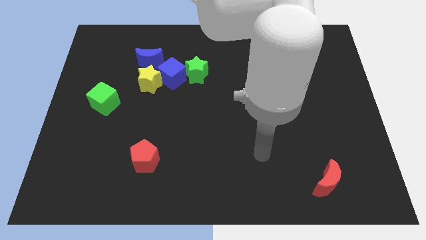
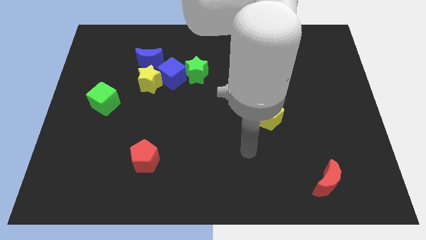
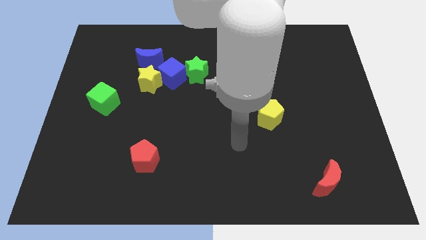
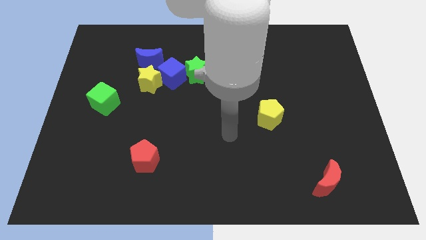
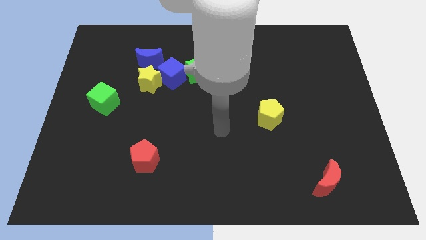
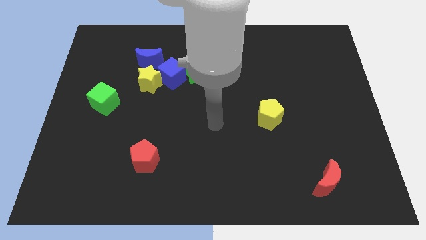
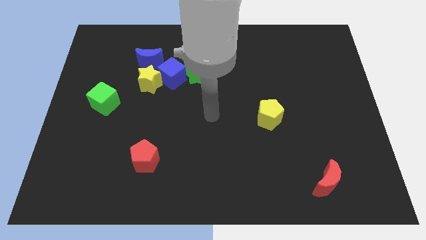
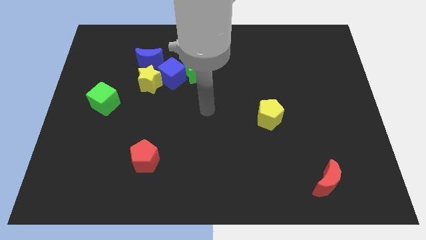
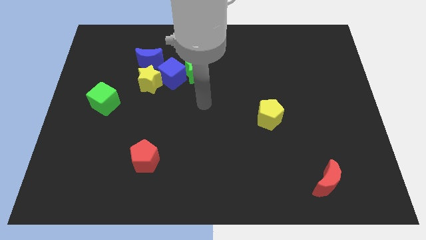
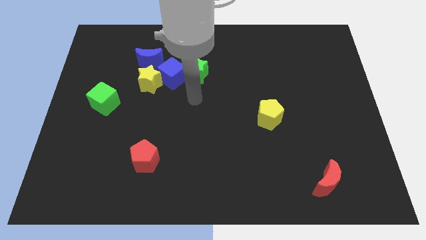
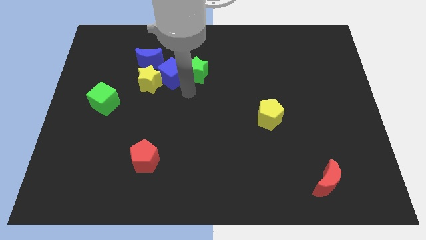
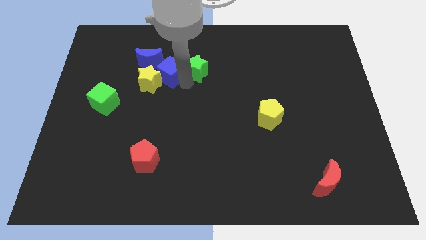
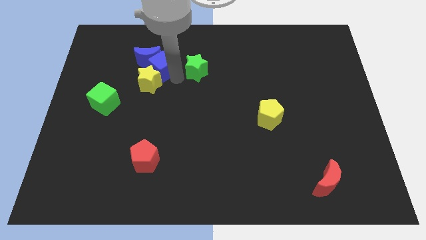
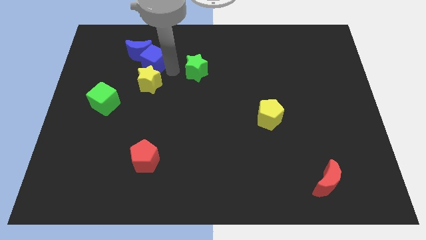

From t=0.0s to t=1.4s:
separate the green star from the blue cube

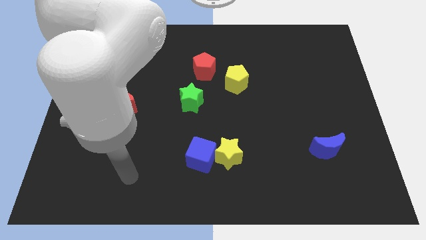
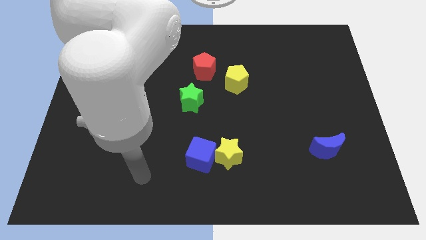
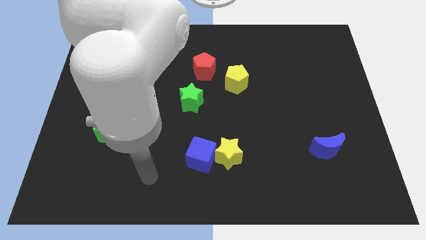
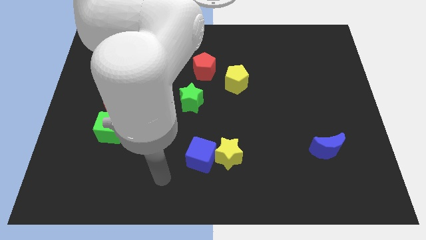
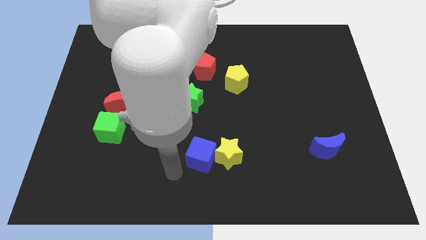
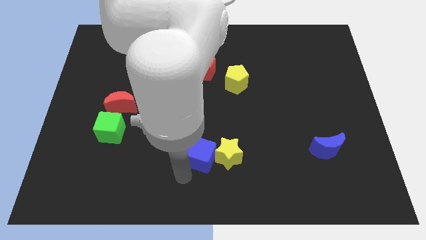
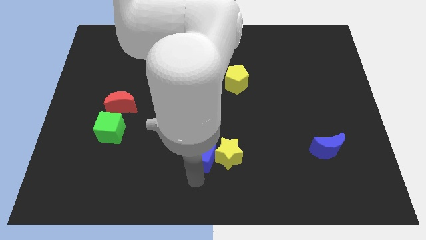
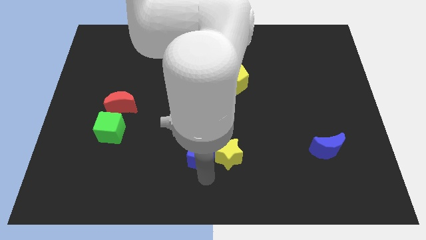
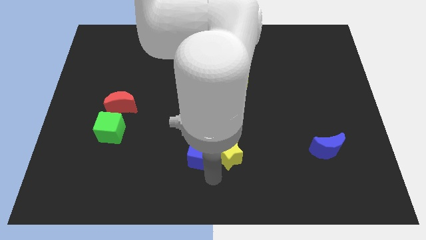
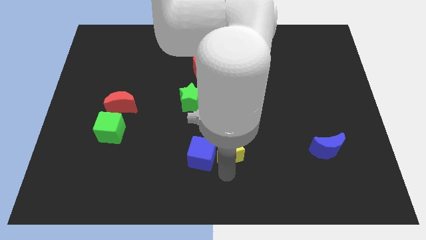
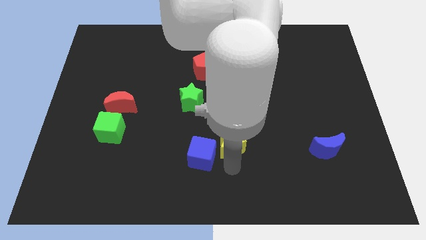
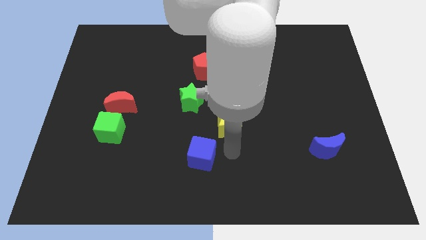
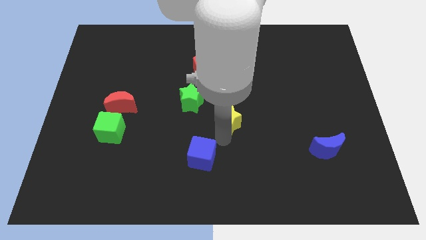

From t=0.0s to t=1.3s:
move the blue cube away from the yellow star

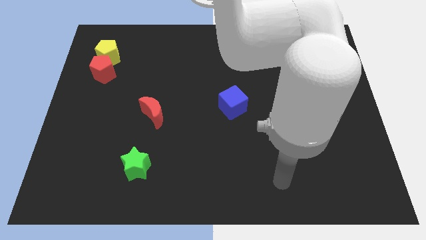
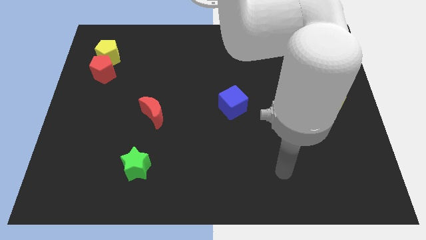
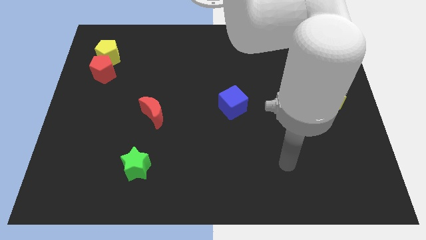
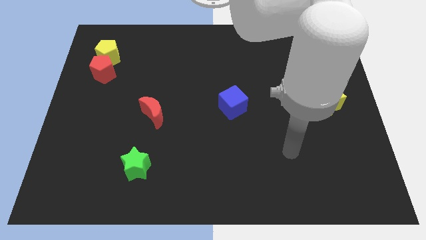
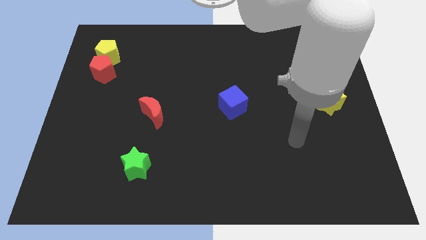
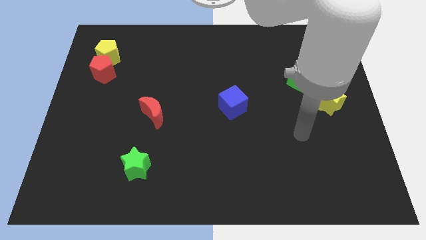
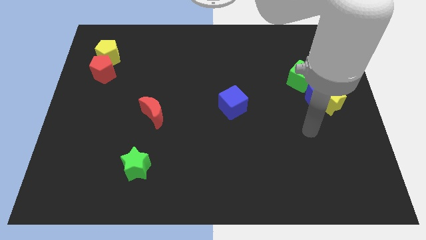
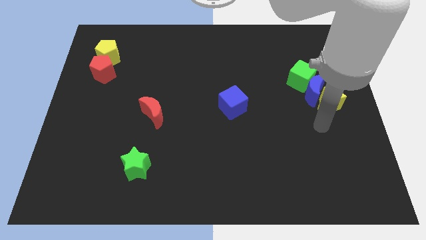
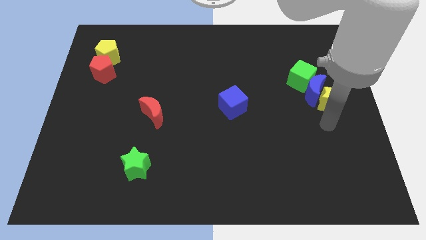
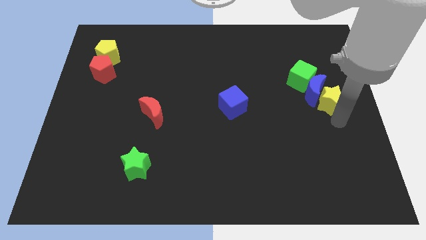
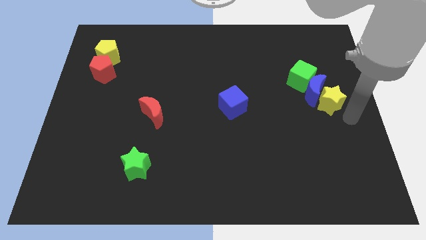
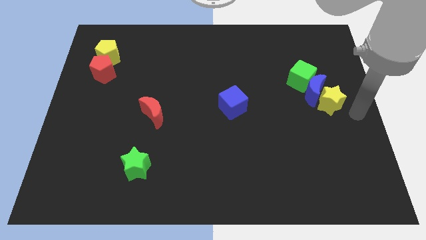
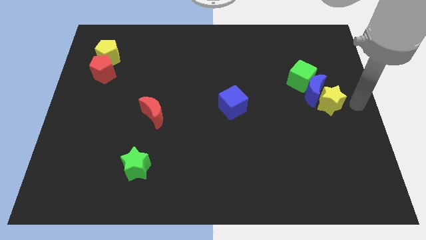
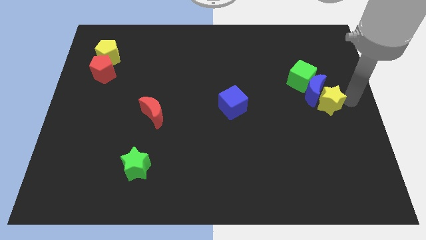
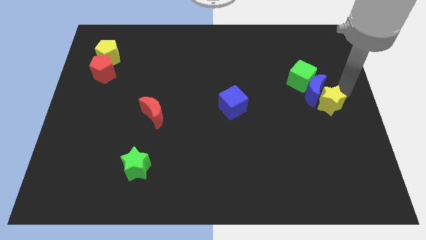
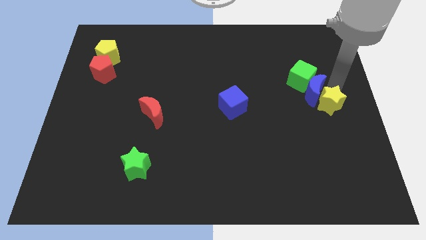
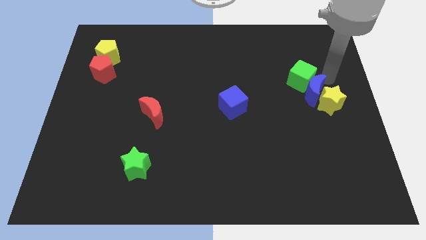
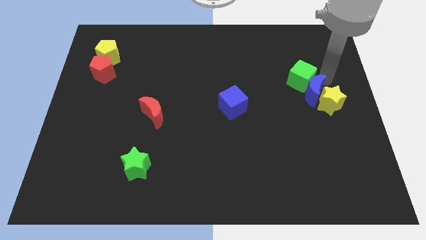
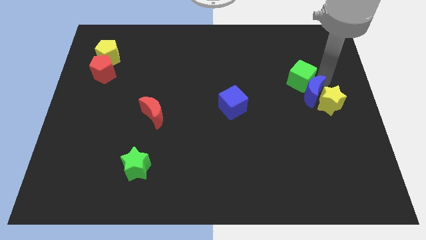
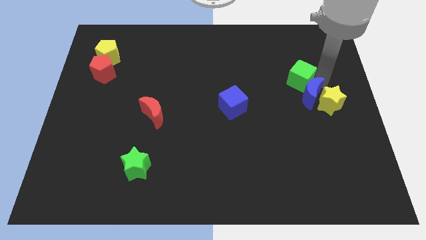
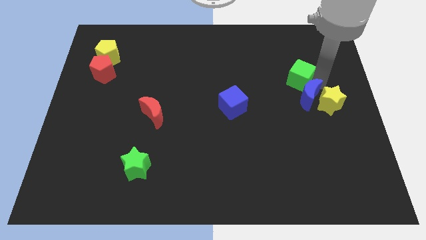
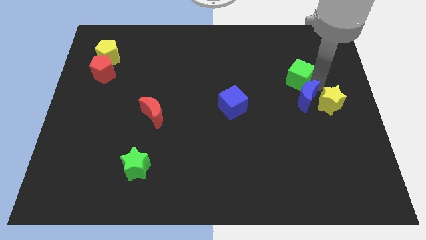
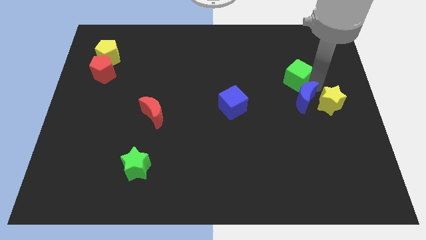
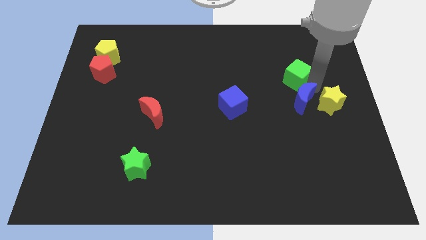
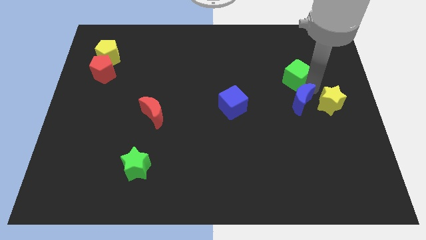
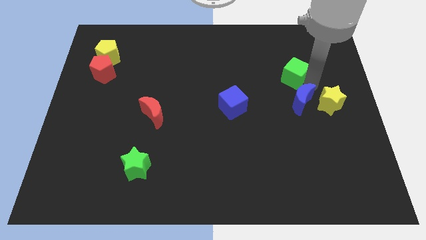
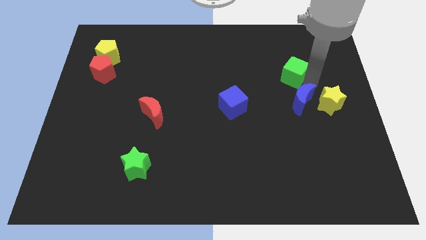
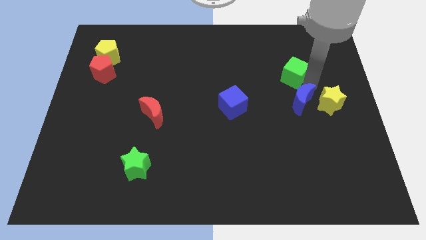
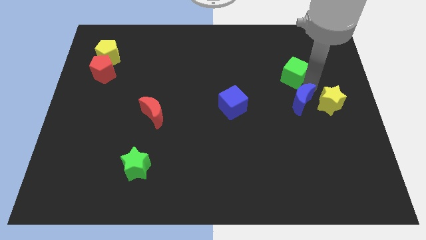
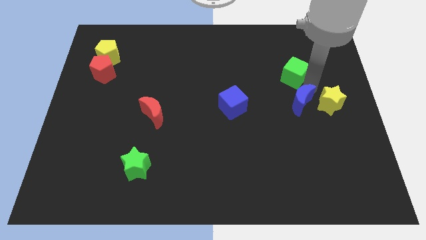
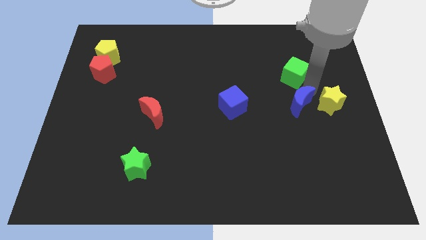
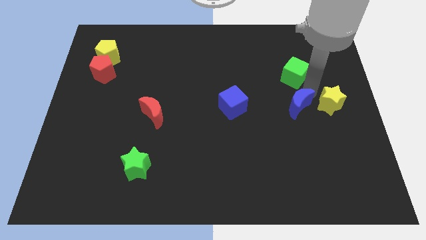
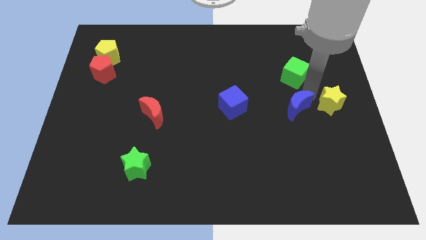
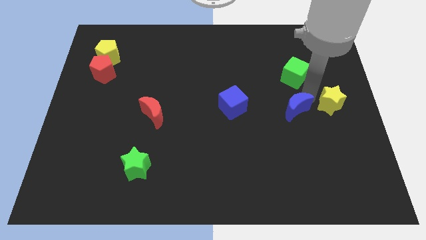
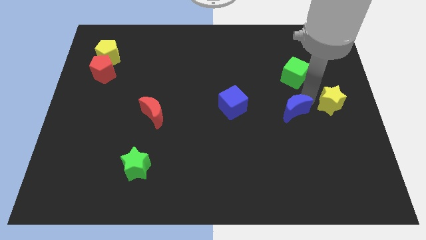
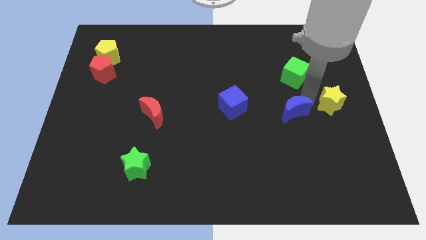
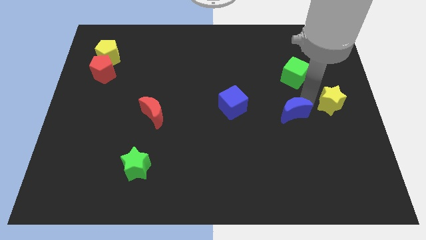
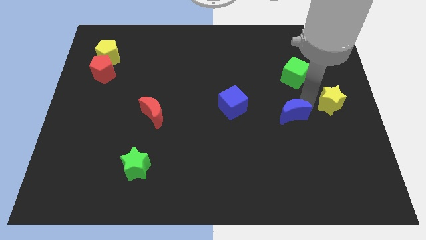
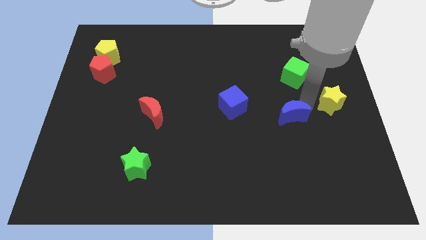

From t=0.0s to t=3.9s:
pull the blue moon apart from the yellow star and green cube

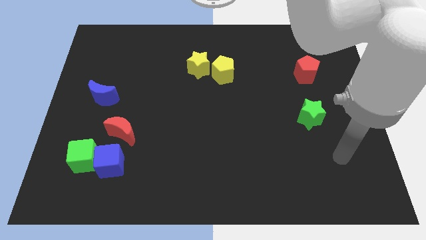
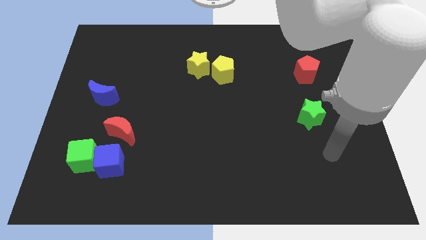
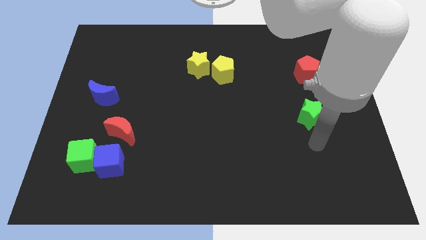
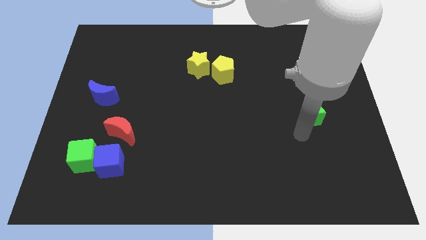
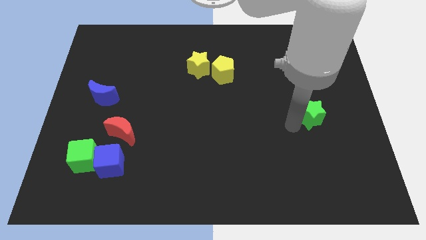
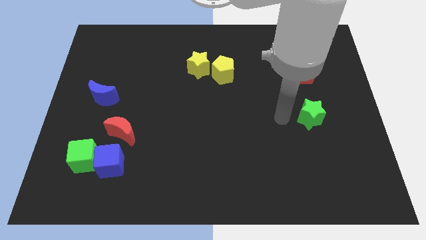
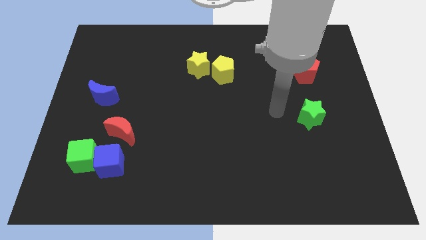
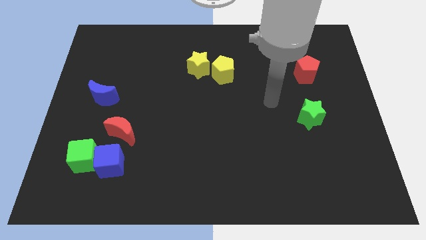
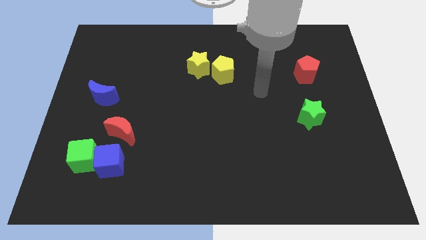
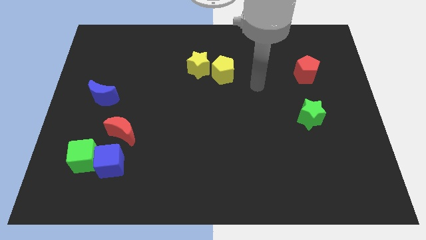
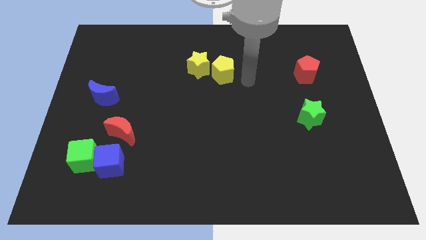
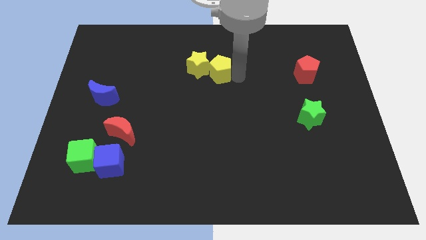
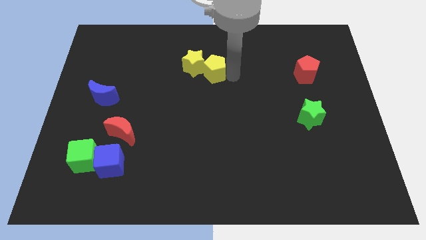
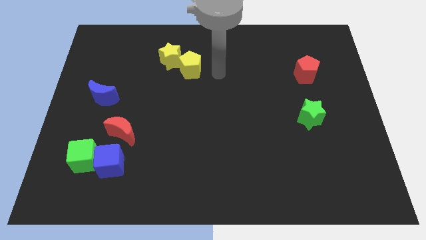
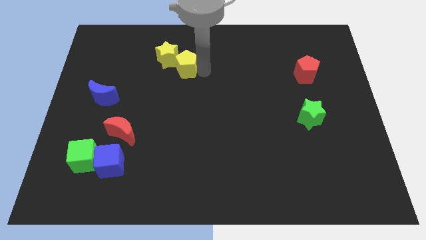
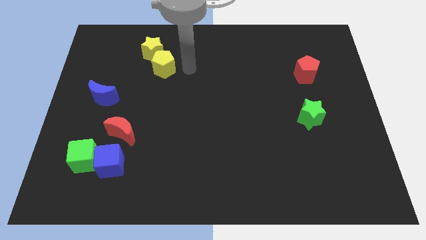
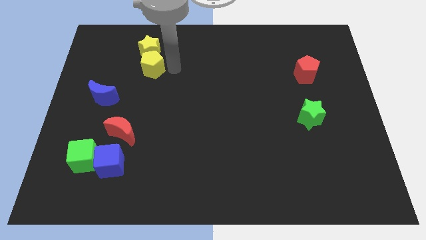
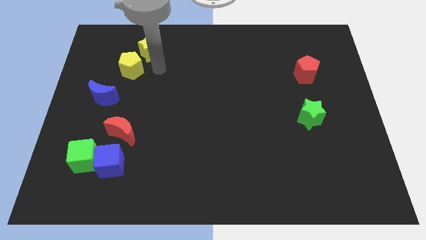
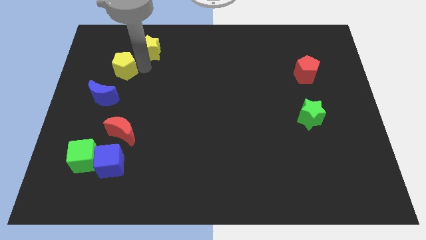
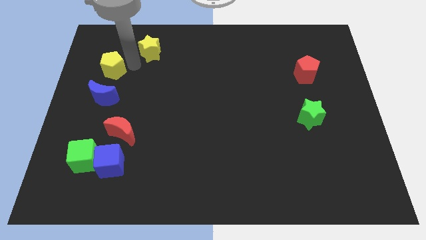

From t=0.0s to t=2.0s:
separate the yellow star from the yellow pentagon

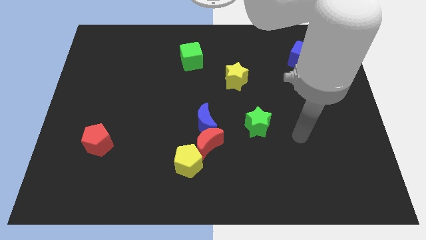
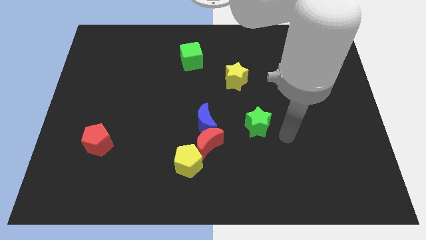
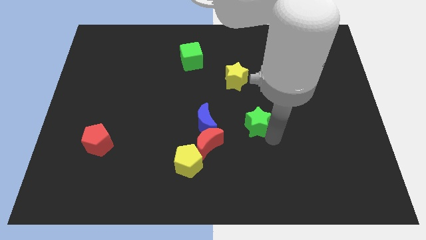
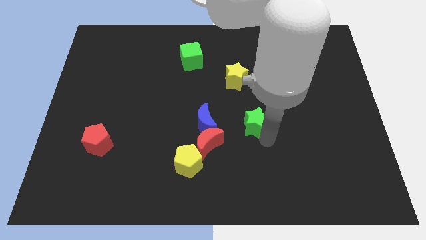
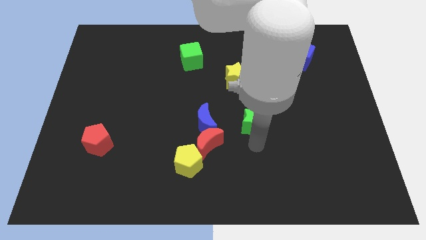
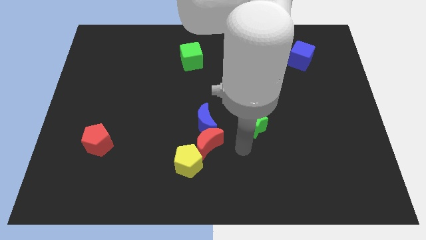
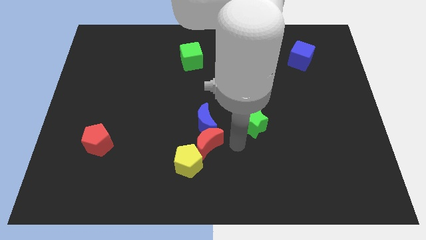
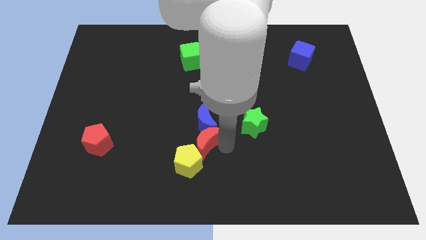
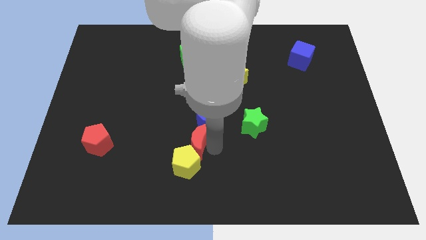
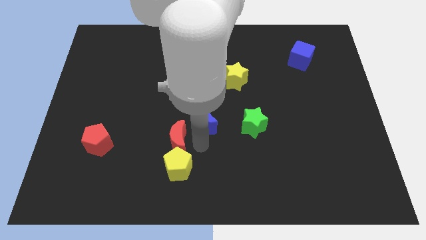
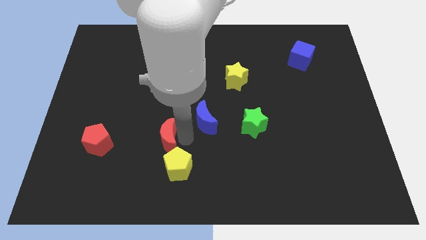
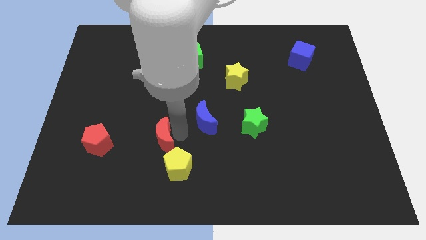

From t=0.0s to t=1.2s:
move the blue moon away from the red moon
